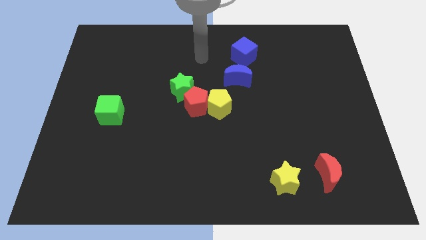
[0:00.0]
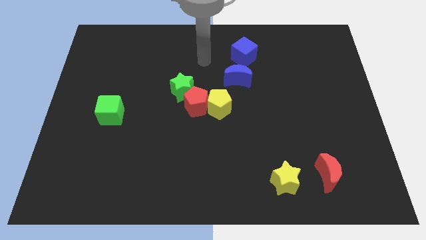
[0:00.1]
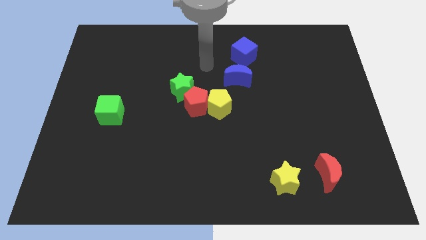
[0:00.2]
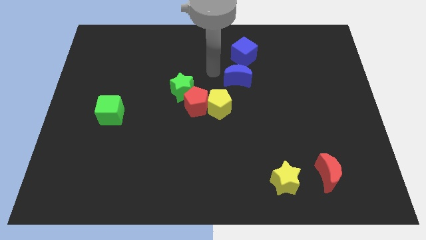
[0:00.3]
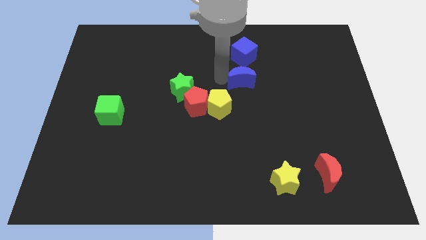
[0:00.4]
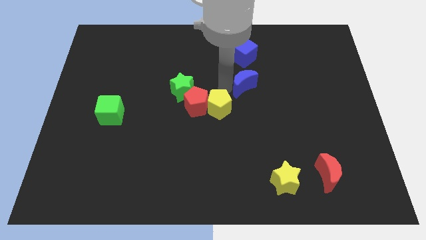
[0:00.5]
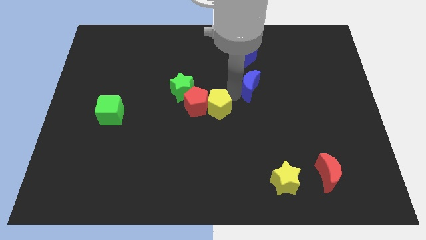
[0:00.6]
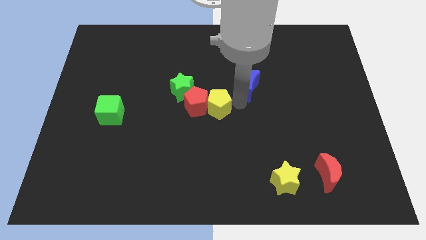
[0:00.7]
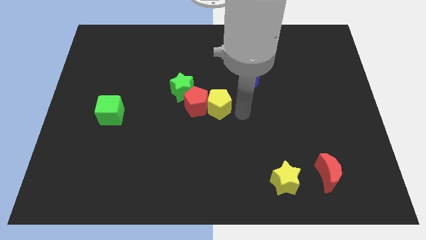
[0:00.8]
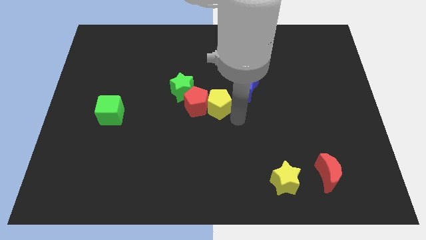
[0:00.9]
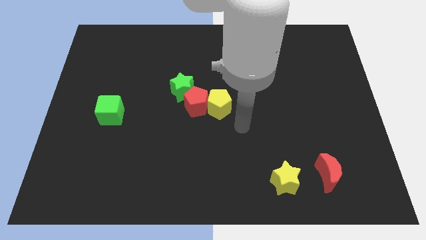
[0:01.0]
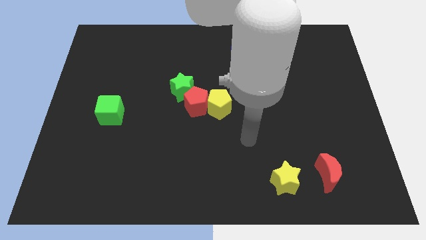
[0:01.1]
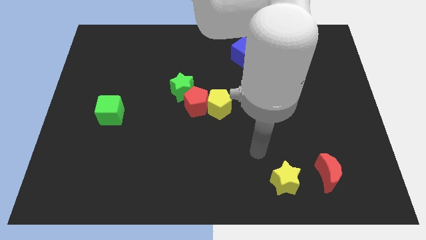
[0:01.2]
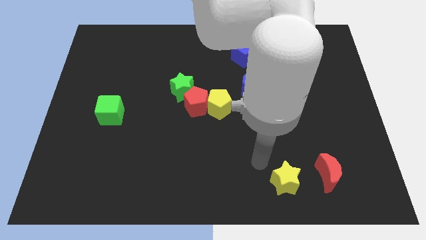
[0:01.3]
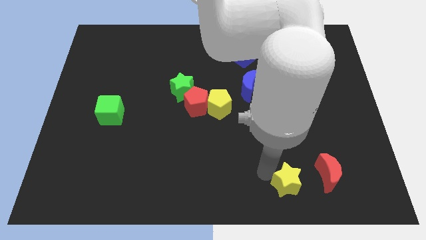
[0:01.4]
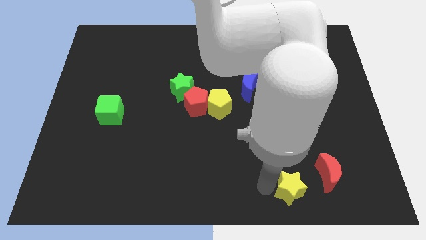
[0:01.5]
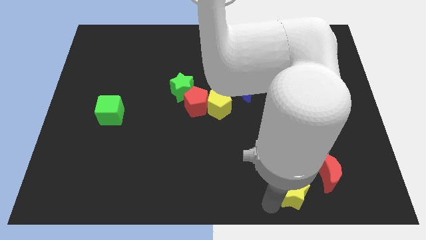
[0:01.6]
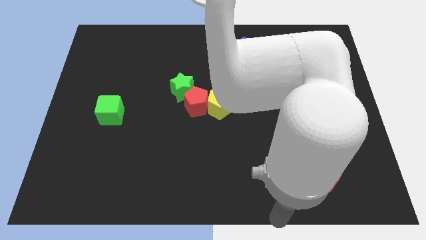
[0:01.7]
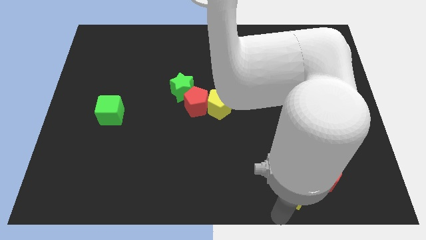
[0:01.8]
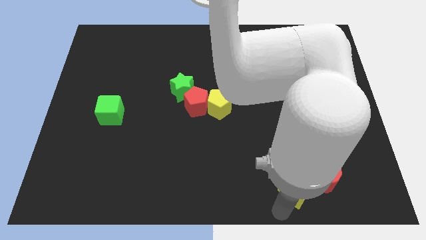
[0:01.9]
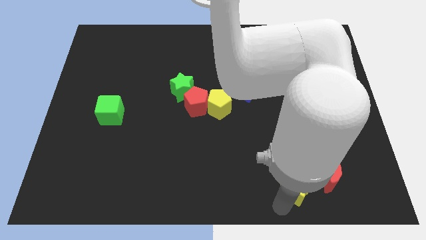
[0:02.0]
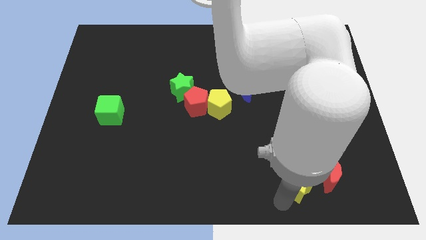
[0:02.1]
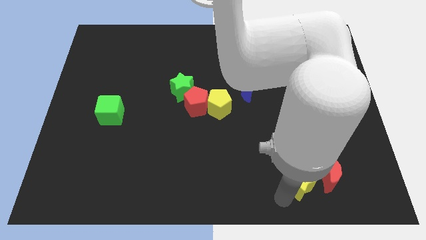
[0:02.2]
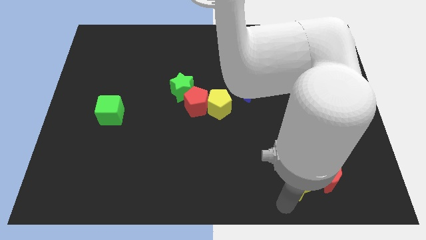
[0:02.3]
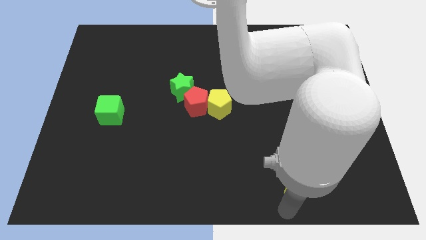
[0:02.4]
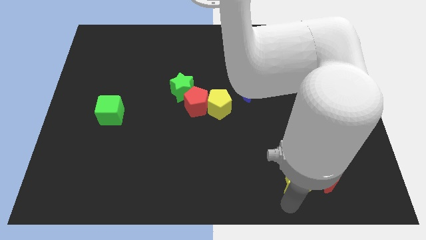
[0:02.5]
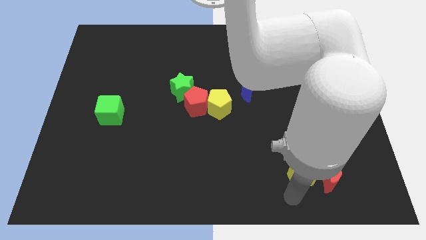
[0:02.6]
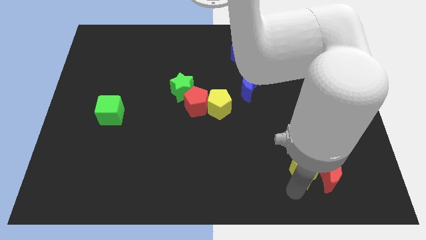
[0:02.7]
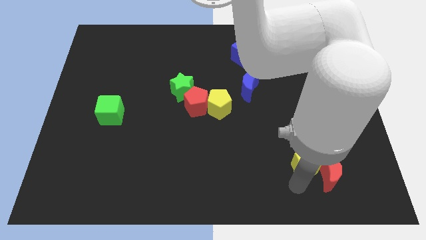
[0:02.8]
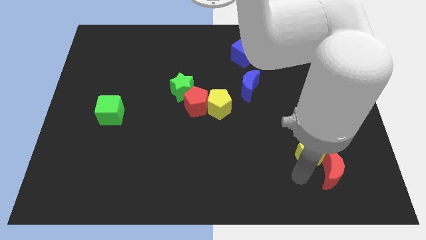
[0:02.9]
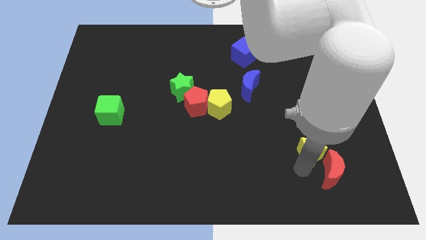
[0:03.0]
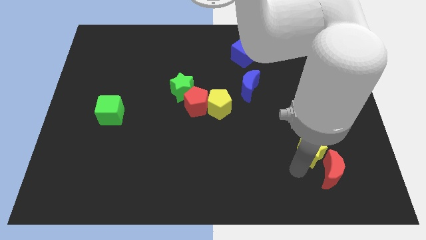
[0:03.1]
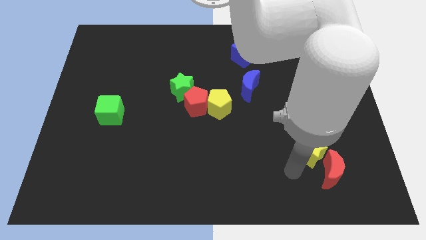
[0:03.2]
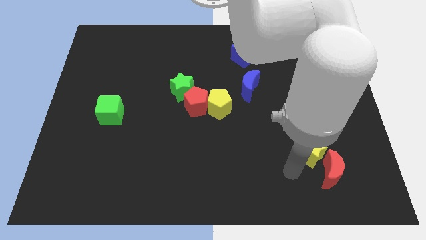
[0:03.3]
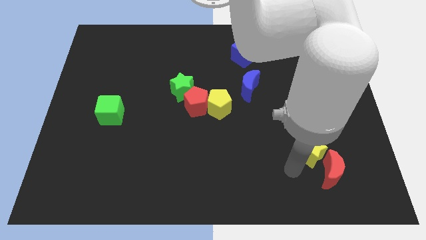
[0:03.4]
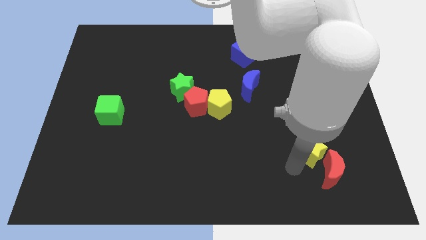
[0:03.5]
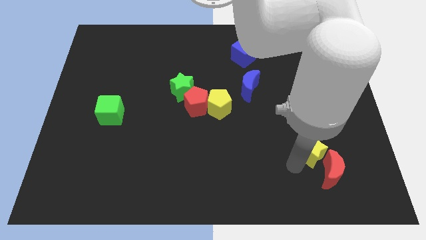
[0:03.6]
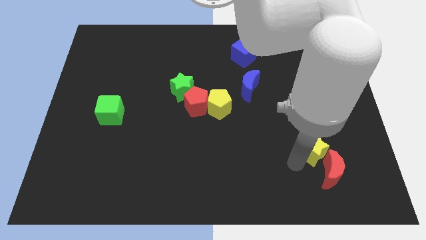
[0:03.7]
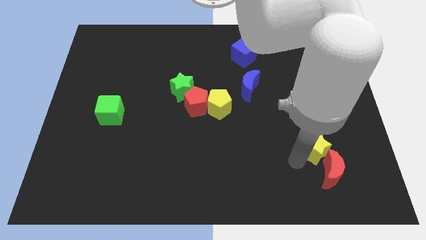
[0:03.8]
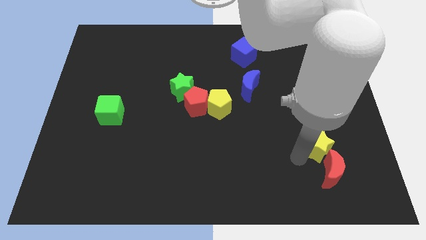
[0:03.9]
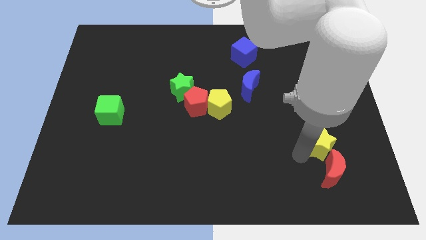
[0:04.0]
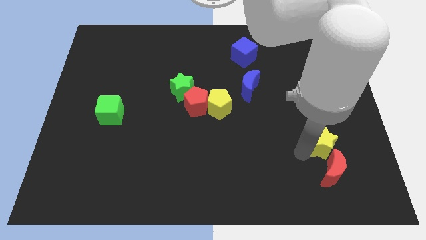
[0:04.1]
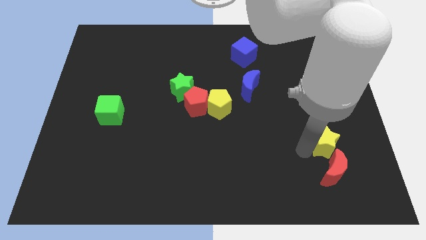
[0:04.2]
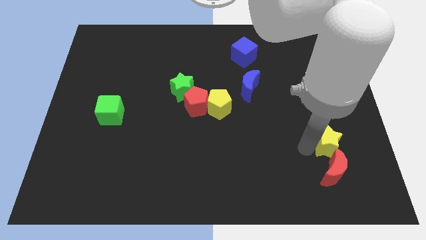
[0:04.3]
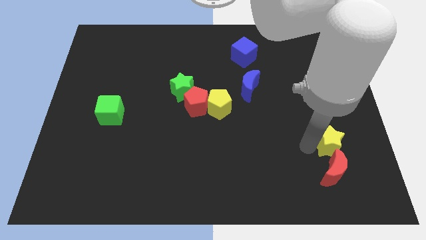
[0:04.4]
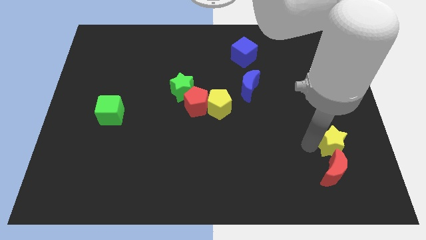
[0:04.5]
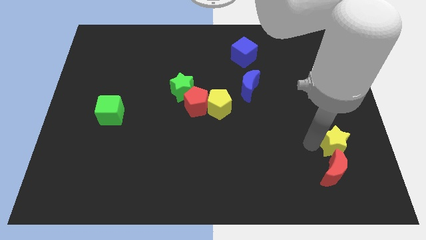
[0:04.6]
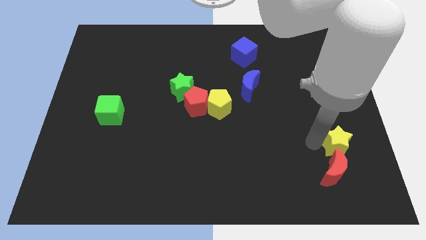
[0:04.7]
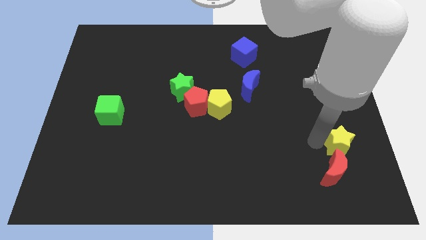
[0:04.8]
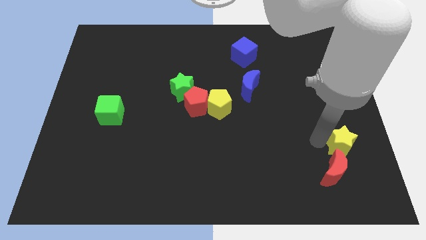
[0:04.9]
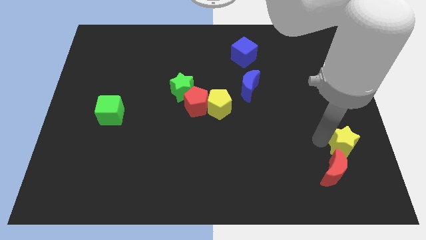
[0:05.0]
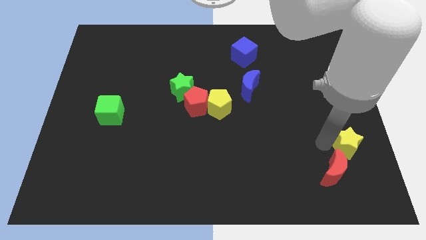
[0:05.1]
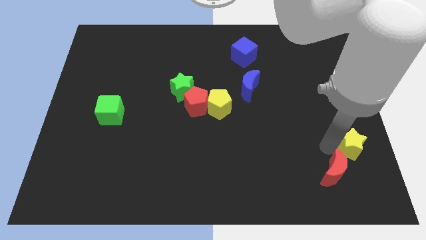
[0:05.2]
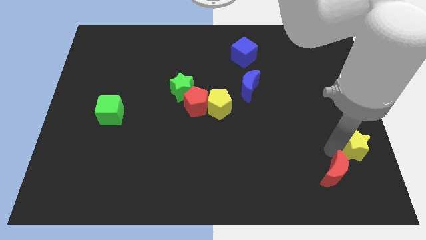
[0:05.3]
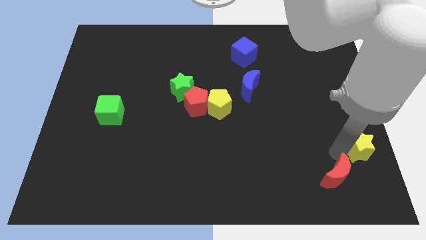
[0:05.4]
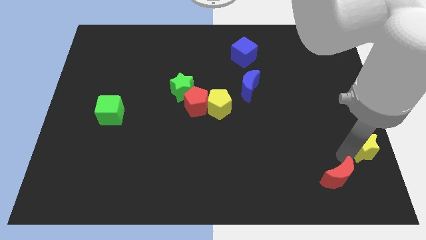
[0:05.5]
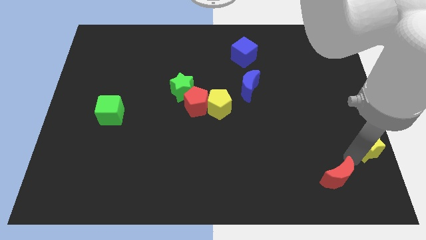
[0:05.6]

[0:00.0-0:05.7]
slide the yellow star to the right side of the board

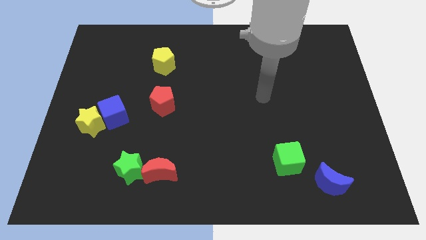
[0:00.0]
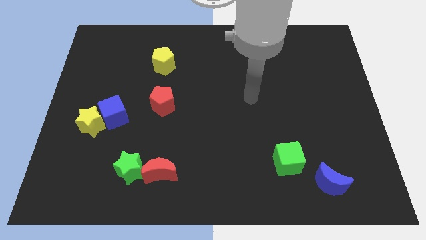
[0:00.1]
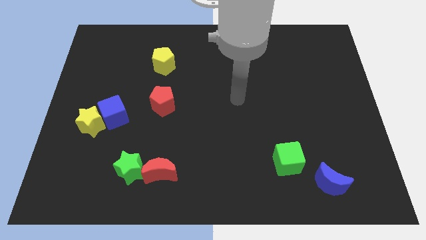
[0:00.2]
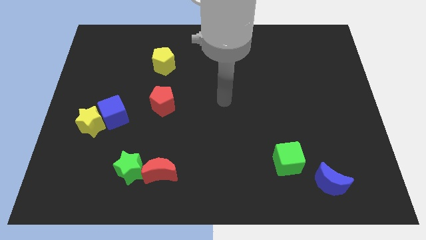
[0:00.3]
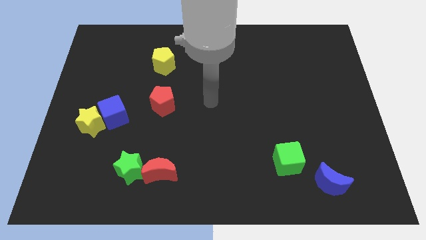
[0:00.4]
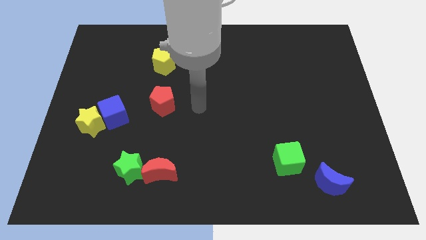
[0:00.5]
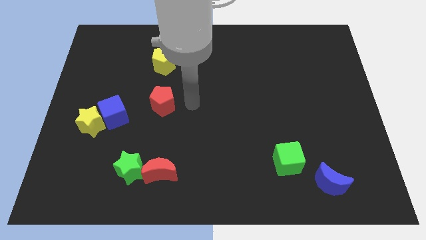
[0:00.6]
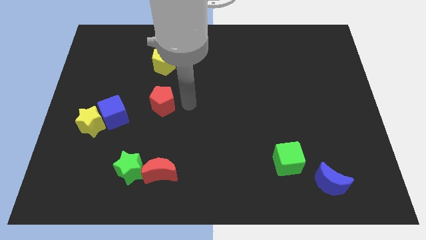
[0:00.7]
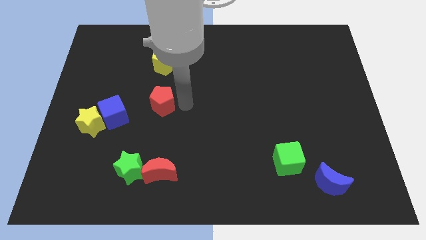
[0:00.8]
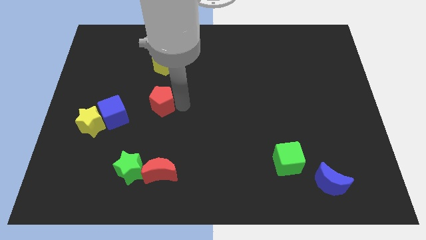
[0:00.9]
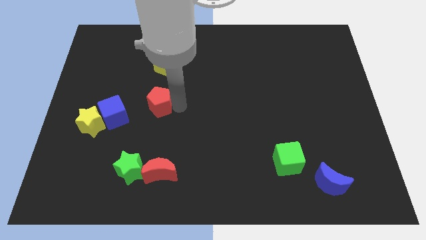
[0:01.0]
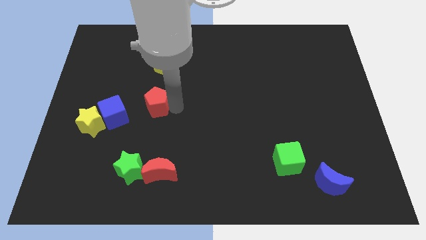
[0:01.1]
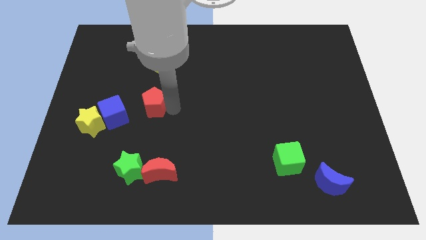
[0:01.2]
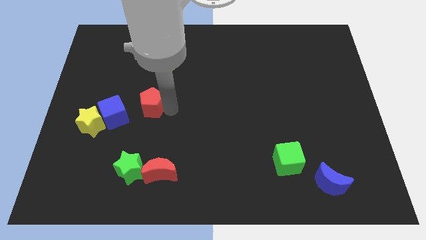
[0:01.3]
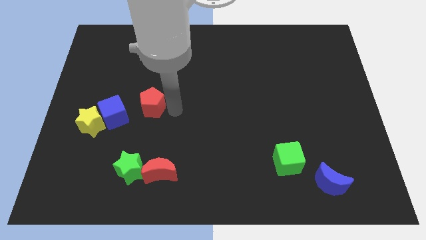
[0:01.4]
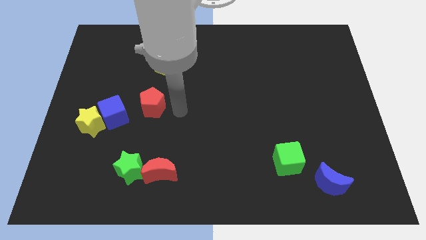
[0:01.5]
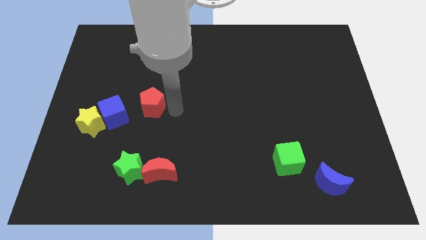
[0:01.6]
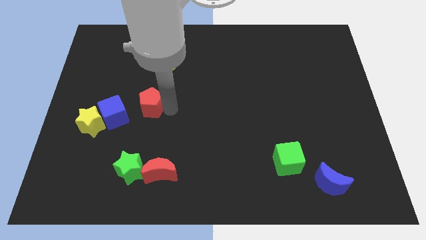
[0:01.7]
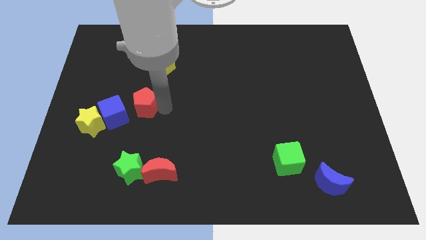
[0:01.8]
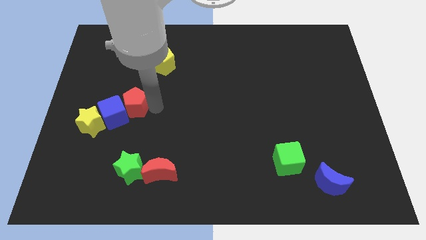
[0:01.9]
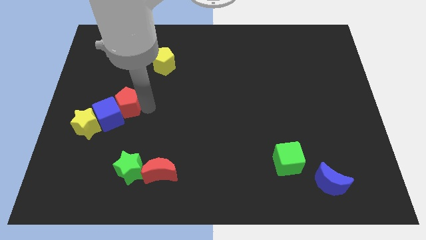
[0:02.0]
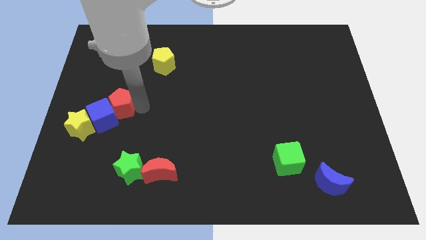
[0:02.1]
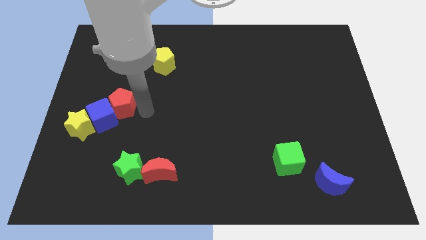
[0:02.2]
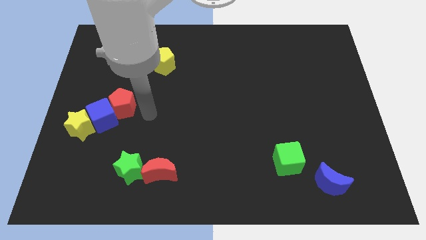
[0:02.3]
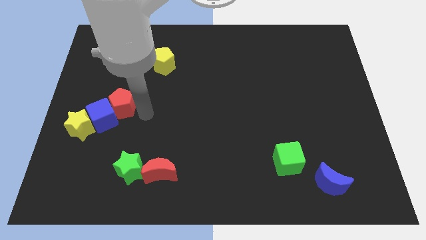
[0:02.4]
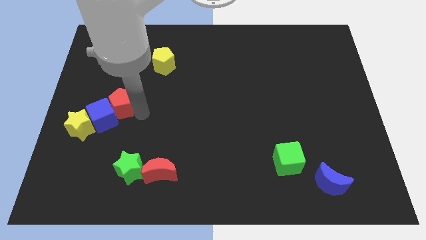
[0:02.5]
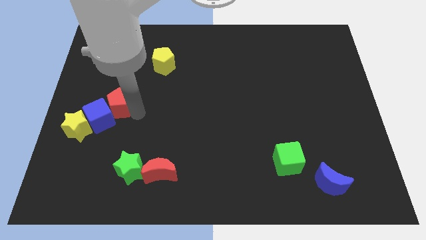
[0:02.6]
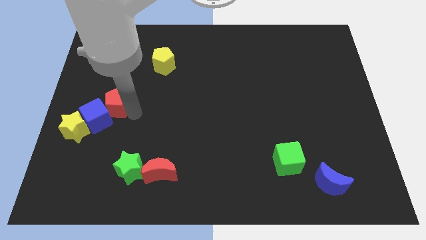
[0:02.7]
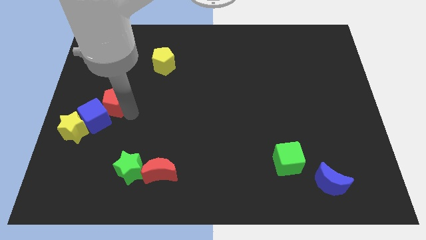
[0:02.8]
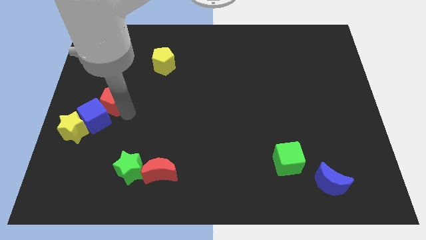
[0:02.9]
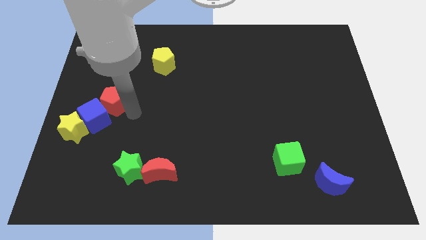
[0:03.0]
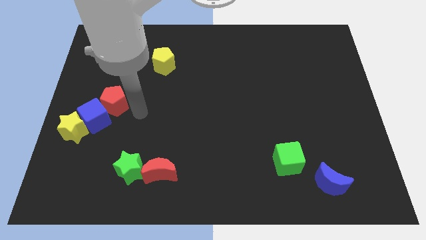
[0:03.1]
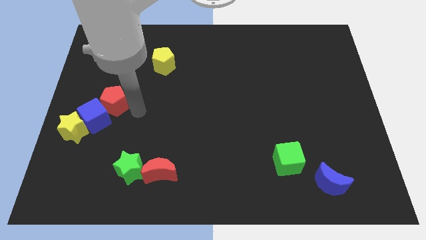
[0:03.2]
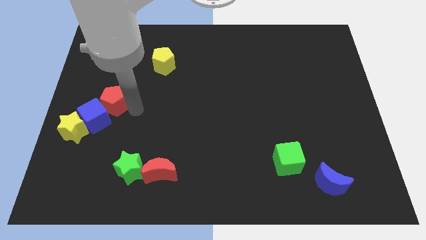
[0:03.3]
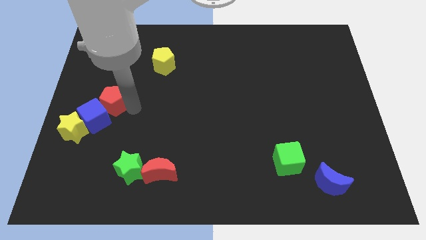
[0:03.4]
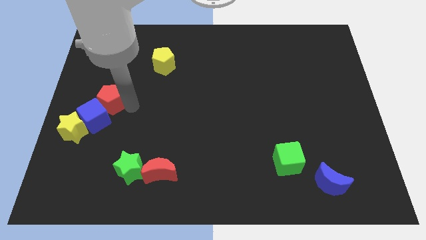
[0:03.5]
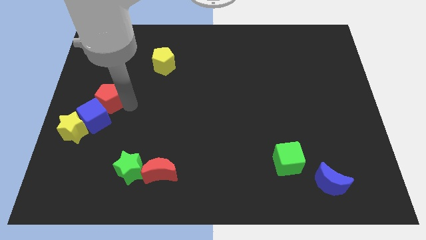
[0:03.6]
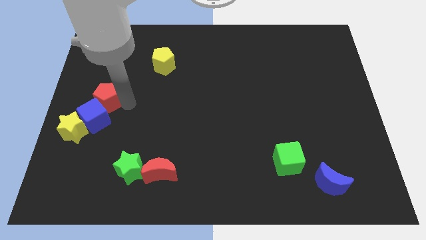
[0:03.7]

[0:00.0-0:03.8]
slide the red pentagon to the center left
